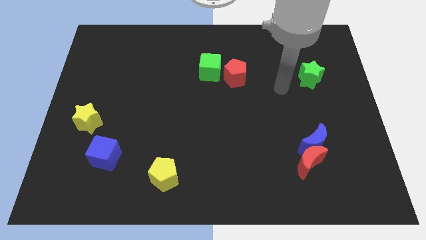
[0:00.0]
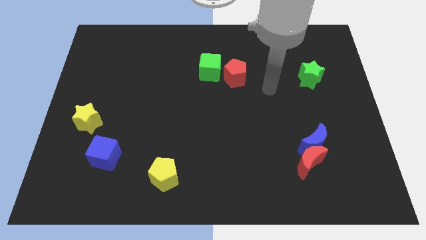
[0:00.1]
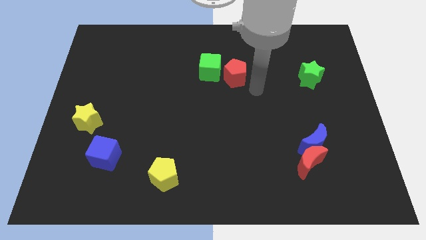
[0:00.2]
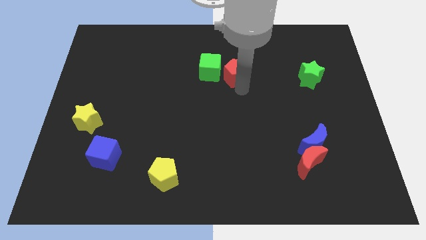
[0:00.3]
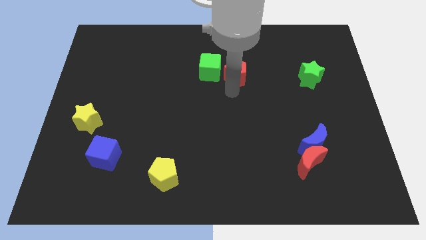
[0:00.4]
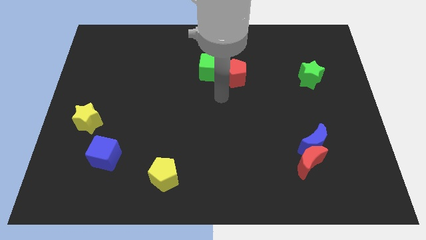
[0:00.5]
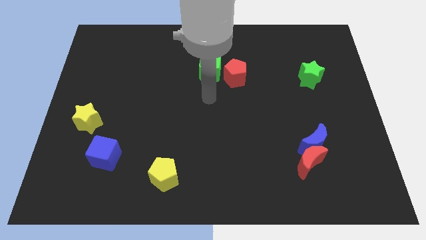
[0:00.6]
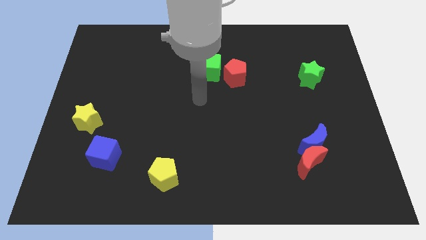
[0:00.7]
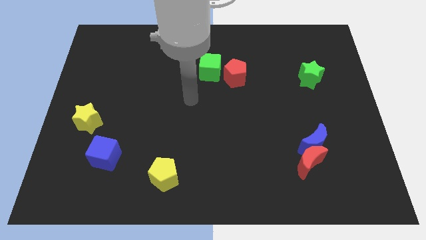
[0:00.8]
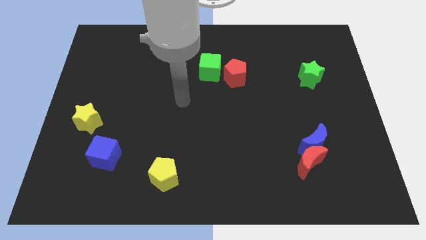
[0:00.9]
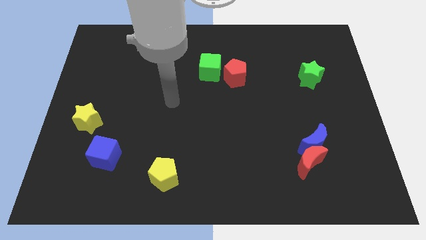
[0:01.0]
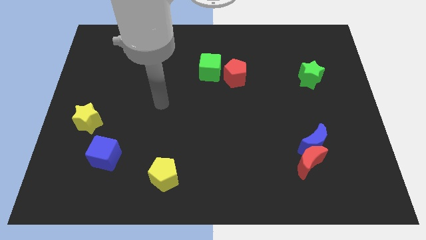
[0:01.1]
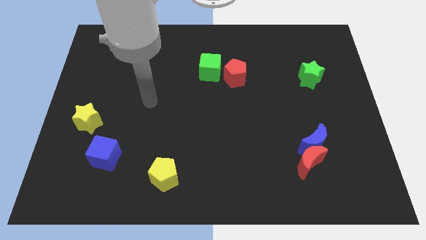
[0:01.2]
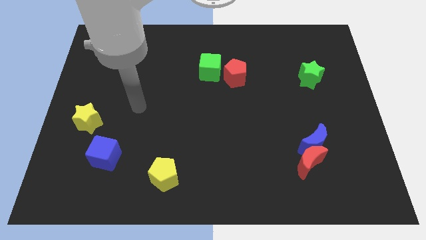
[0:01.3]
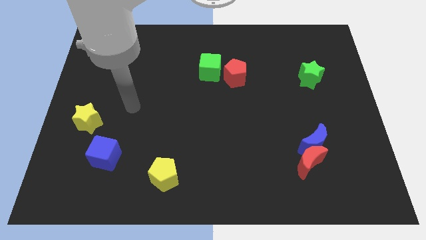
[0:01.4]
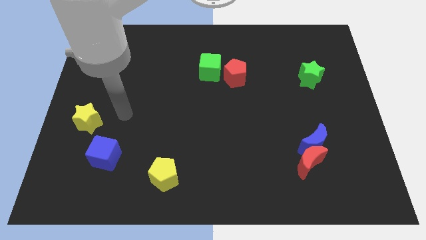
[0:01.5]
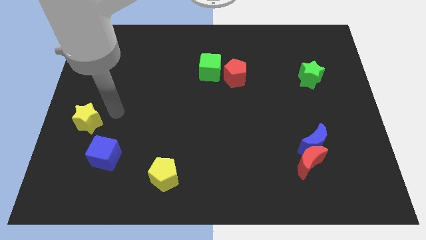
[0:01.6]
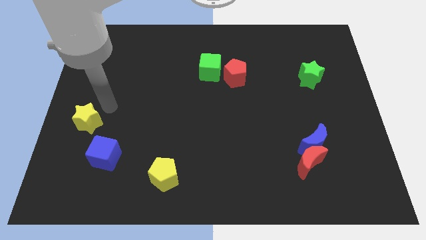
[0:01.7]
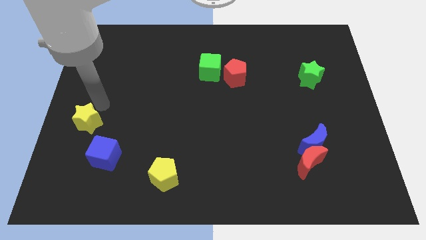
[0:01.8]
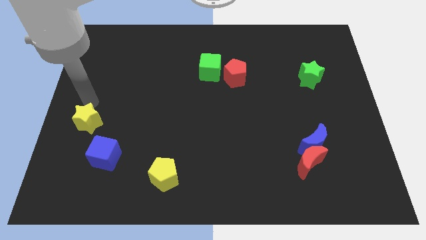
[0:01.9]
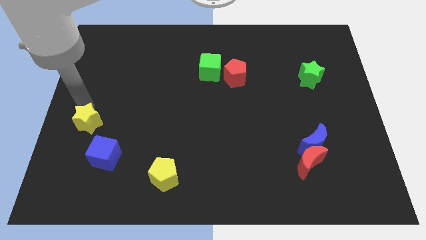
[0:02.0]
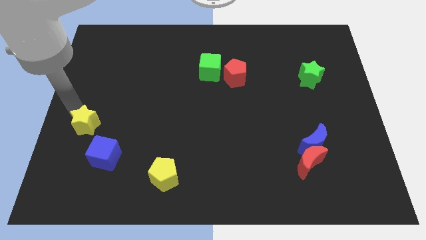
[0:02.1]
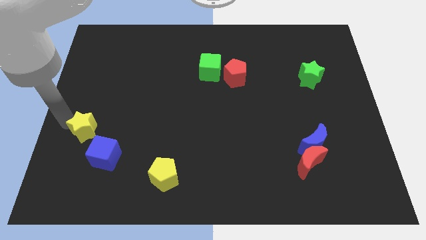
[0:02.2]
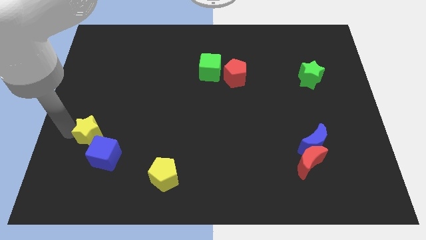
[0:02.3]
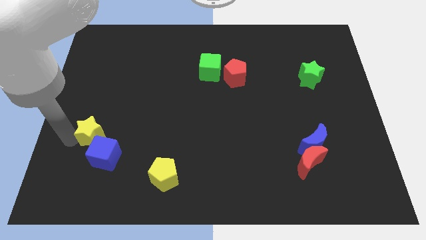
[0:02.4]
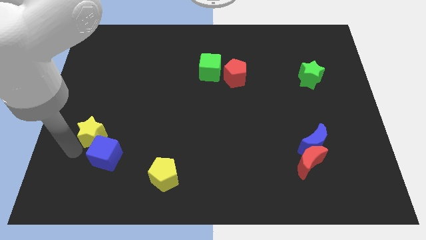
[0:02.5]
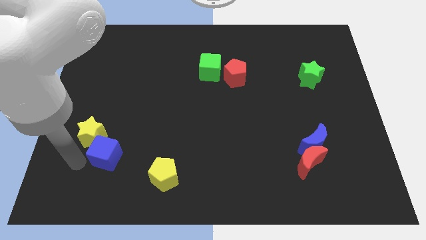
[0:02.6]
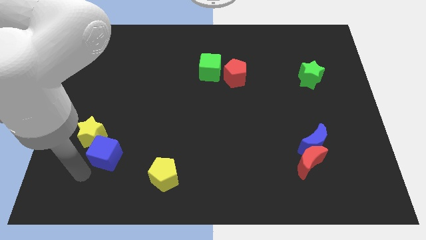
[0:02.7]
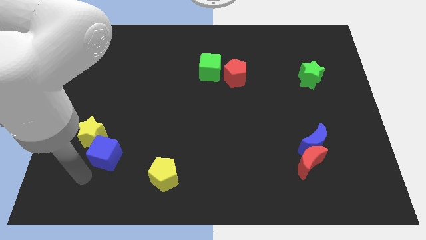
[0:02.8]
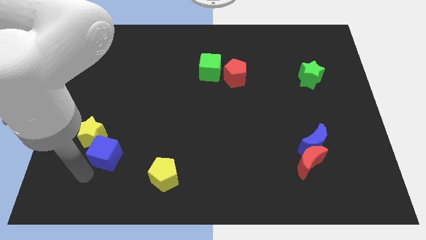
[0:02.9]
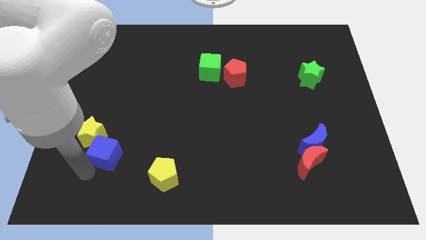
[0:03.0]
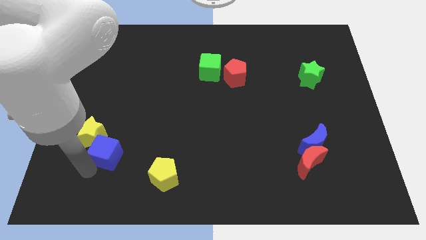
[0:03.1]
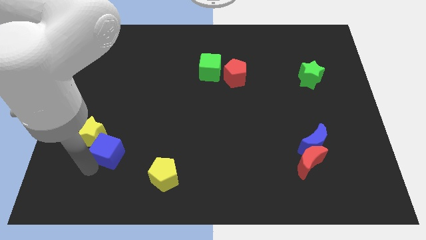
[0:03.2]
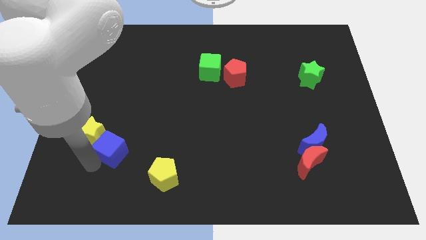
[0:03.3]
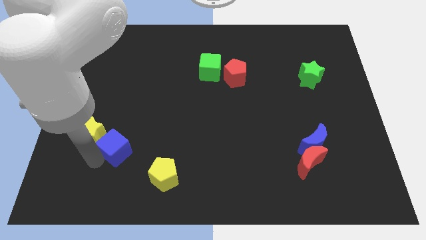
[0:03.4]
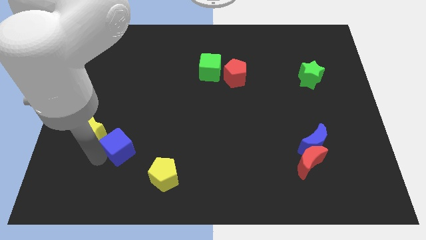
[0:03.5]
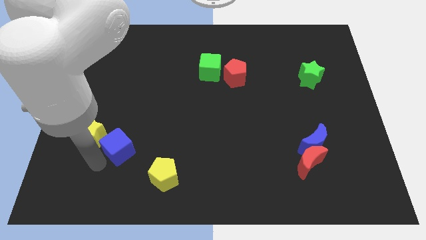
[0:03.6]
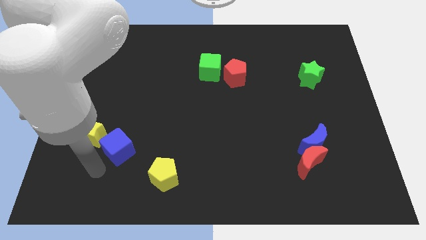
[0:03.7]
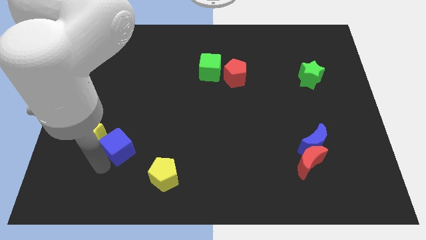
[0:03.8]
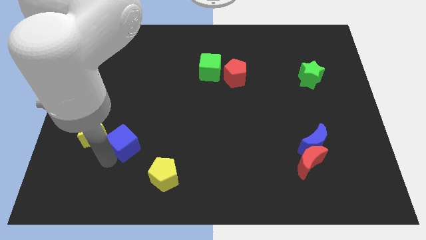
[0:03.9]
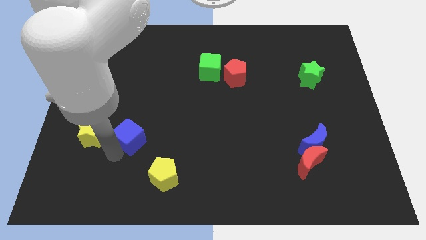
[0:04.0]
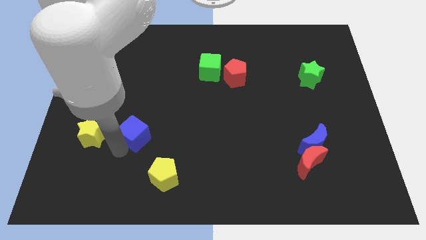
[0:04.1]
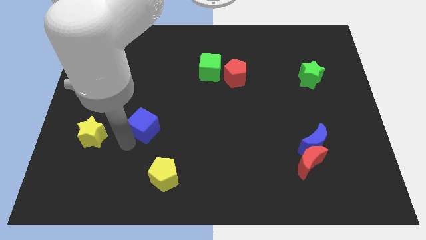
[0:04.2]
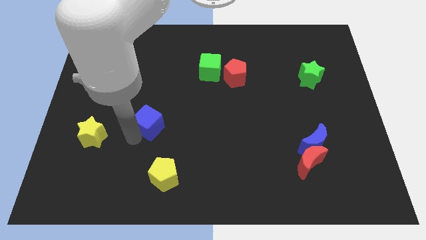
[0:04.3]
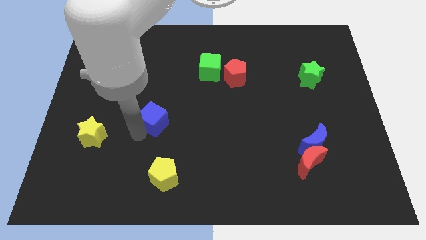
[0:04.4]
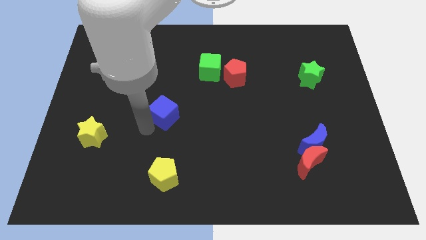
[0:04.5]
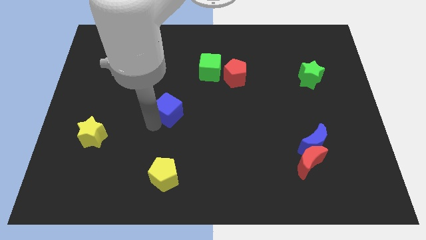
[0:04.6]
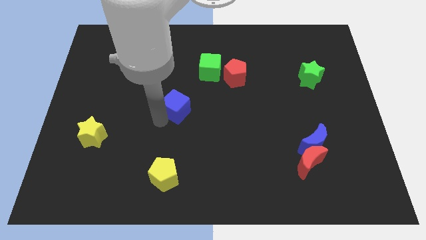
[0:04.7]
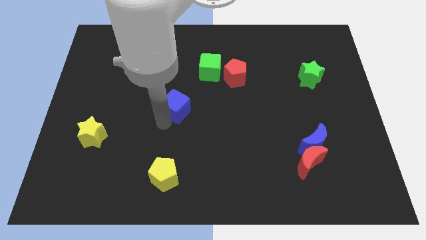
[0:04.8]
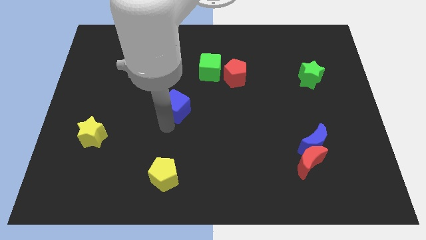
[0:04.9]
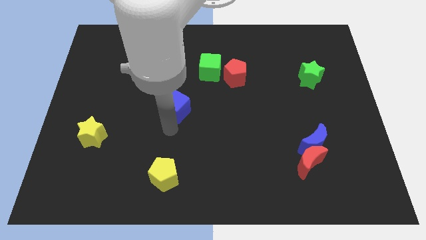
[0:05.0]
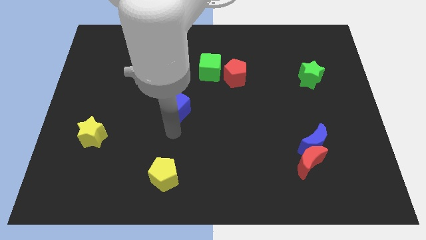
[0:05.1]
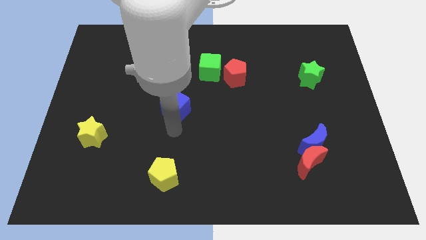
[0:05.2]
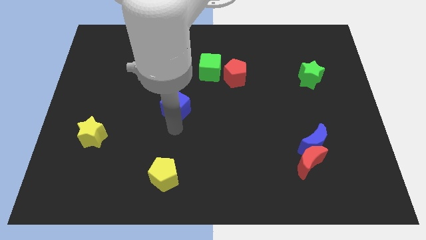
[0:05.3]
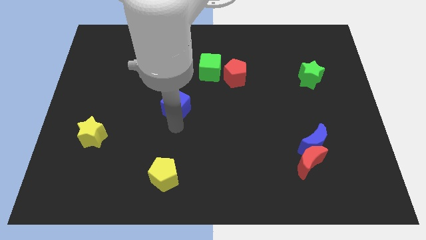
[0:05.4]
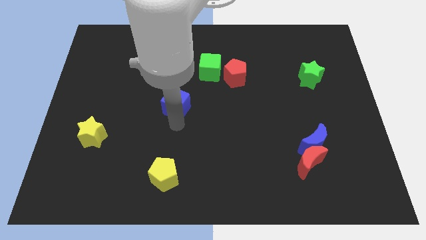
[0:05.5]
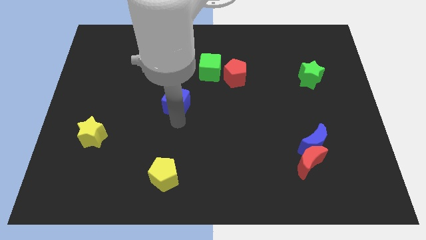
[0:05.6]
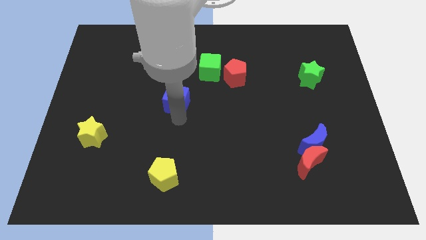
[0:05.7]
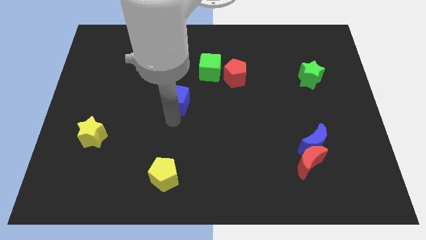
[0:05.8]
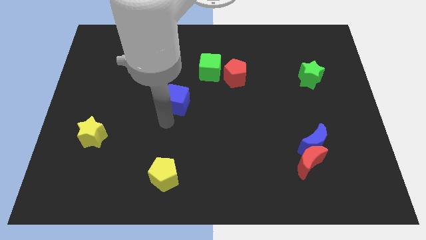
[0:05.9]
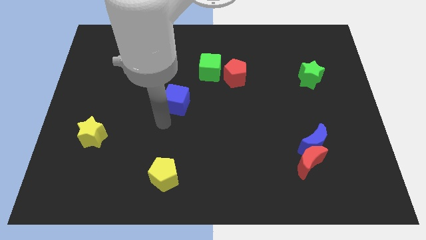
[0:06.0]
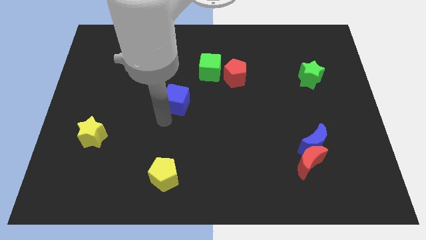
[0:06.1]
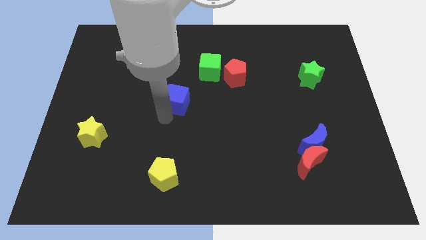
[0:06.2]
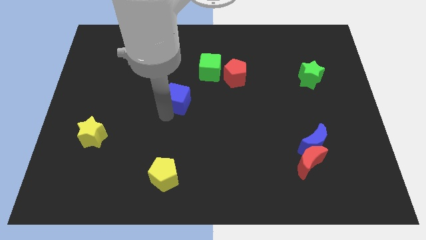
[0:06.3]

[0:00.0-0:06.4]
push the blue cube diagonally down and to the left of the green cube

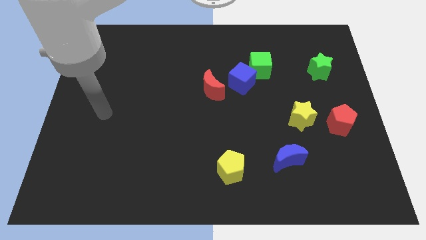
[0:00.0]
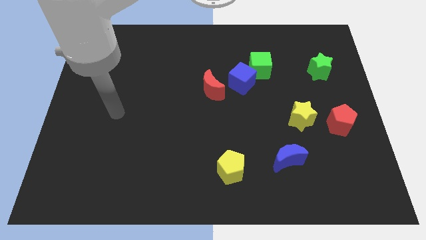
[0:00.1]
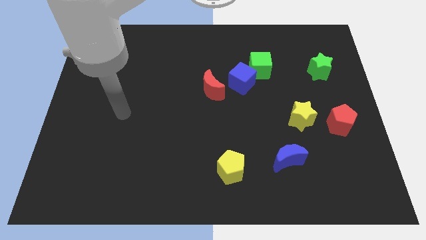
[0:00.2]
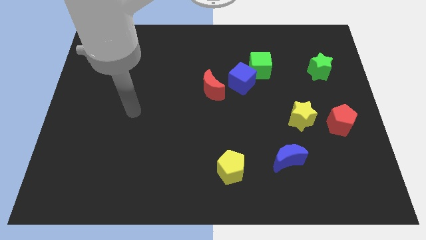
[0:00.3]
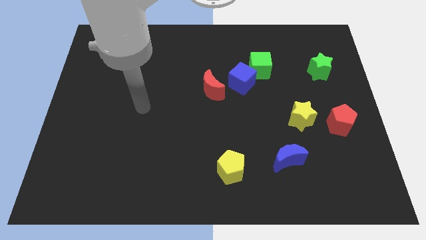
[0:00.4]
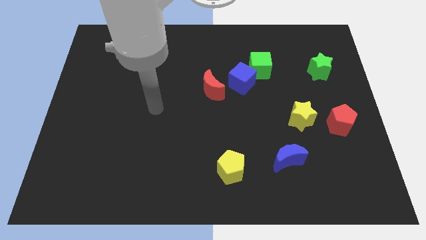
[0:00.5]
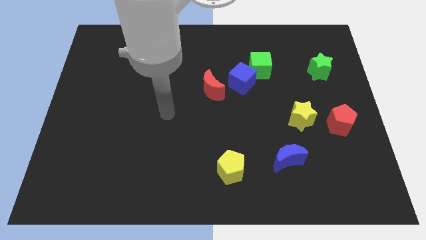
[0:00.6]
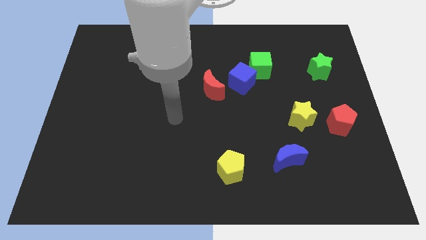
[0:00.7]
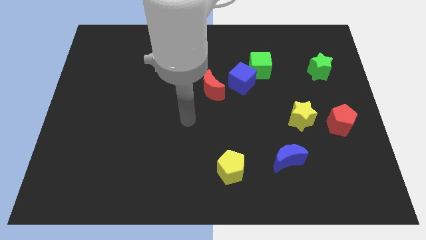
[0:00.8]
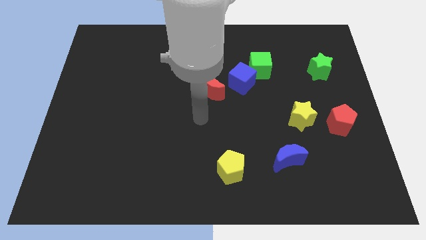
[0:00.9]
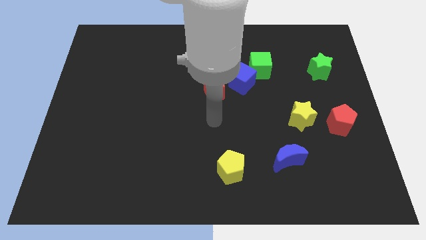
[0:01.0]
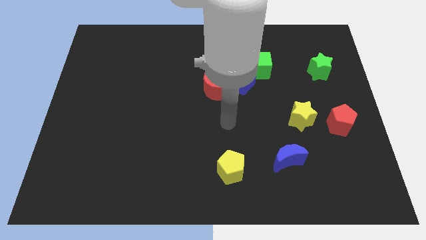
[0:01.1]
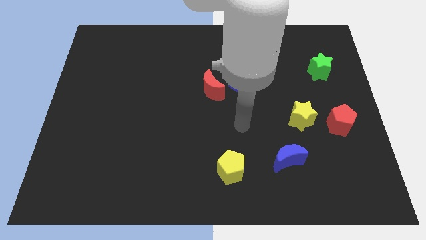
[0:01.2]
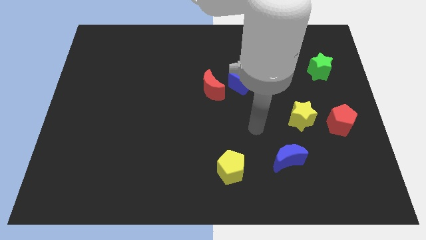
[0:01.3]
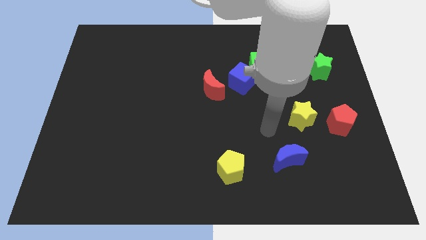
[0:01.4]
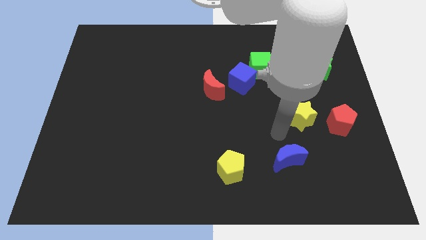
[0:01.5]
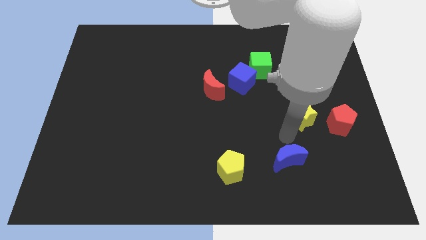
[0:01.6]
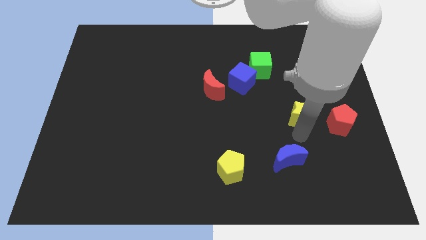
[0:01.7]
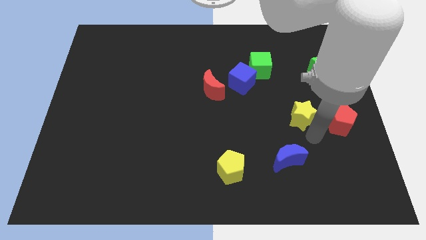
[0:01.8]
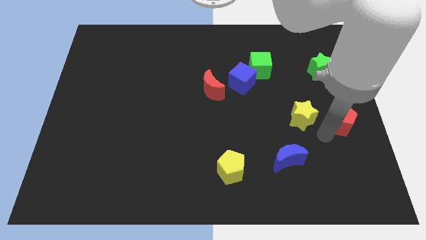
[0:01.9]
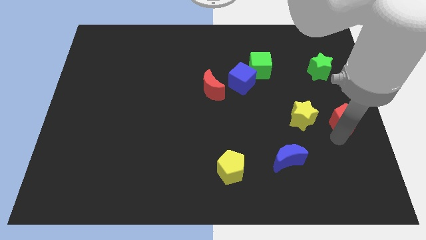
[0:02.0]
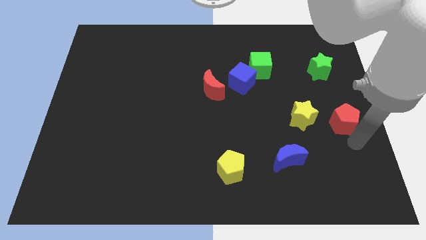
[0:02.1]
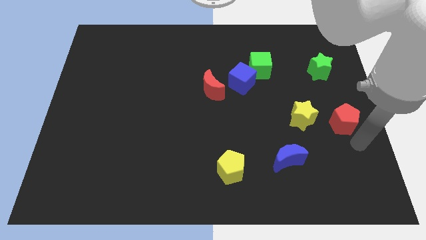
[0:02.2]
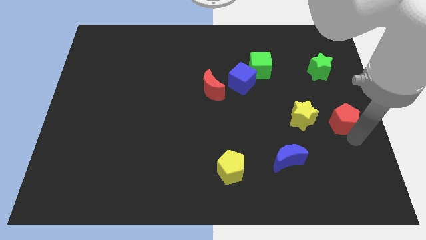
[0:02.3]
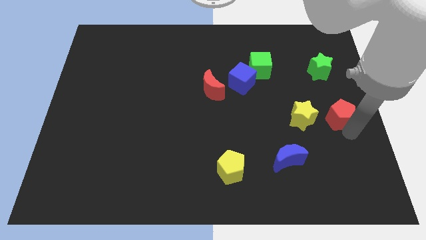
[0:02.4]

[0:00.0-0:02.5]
put the red pentagon to the bottom side of the green star
